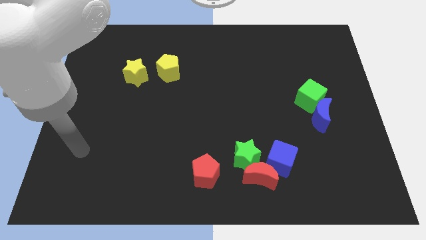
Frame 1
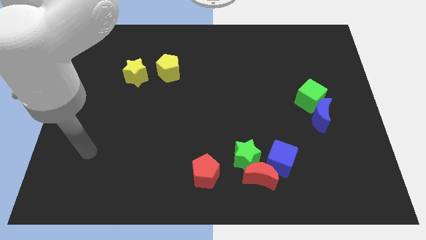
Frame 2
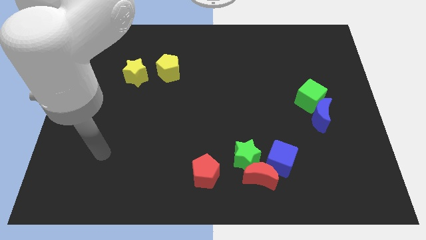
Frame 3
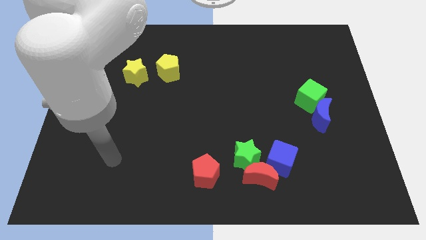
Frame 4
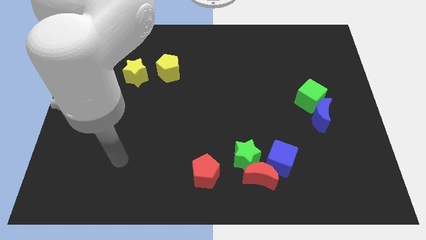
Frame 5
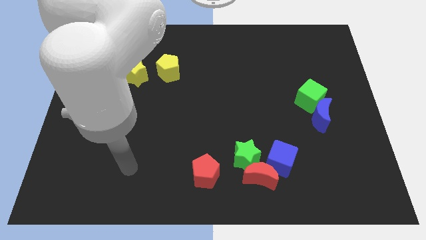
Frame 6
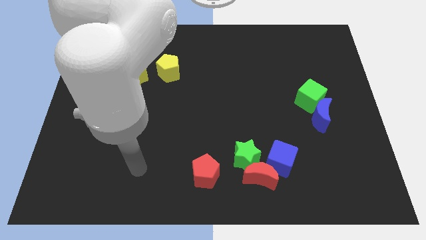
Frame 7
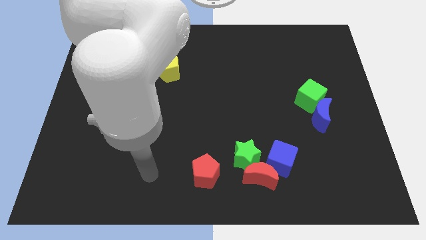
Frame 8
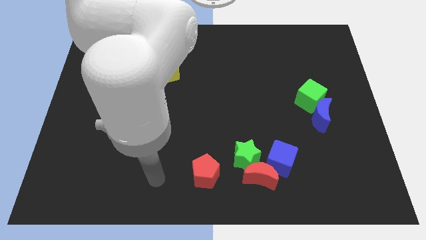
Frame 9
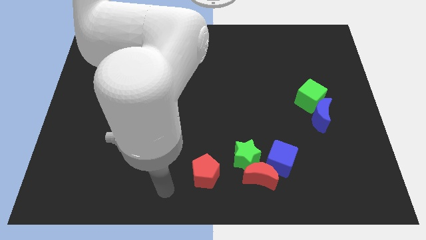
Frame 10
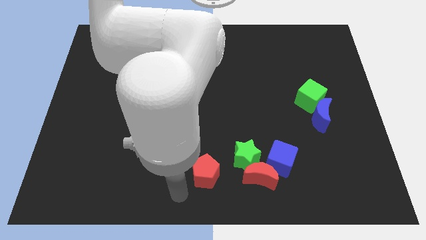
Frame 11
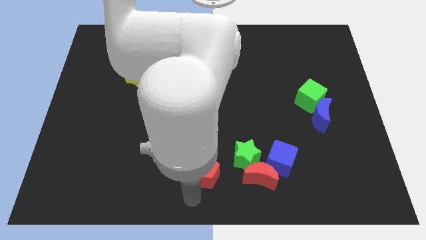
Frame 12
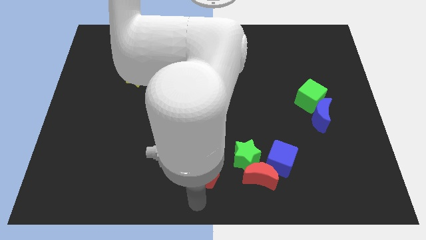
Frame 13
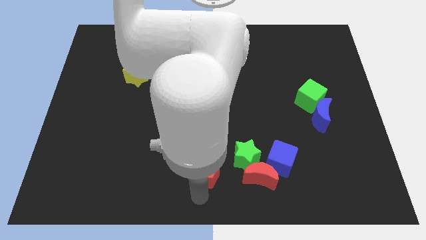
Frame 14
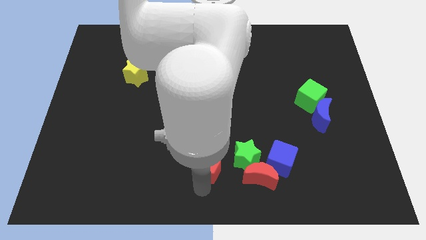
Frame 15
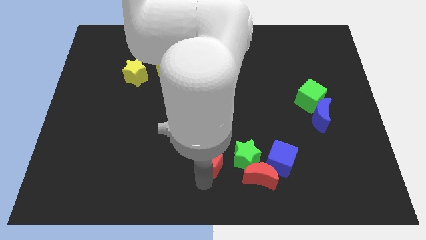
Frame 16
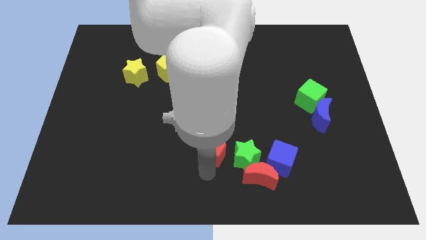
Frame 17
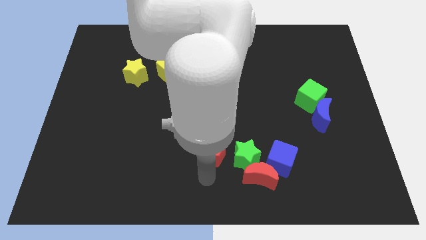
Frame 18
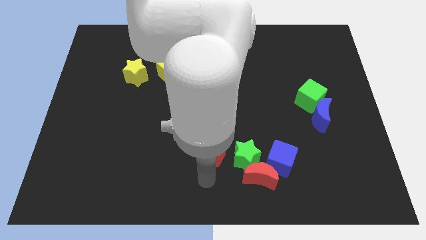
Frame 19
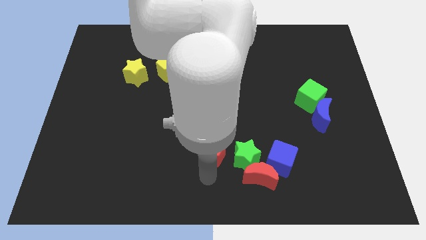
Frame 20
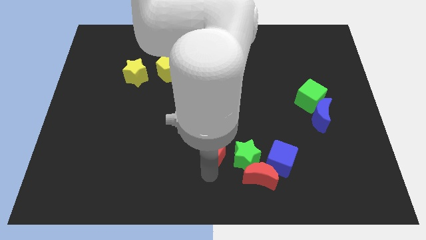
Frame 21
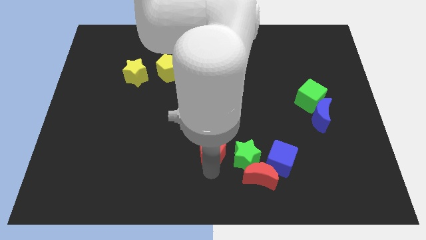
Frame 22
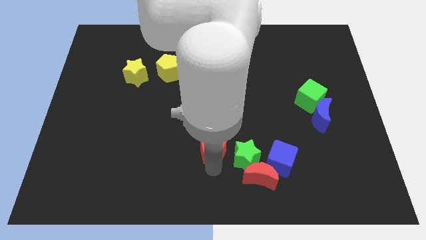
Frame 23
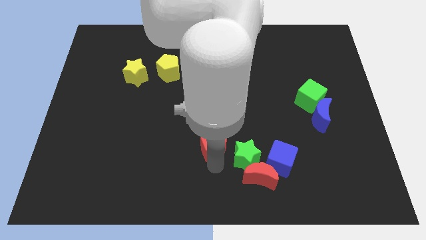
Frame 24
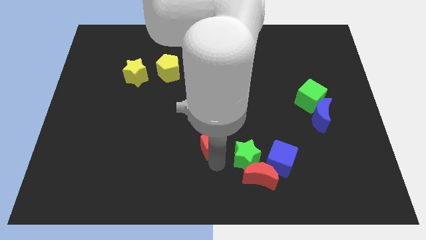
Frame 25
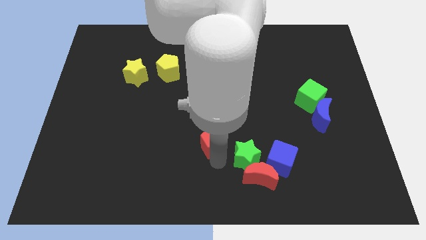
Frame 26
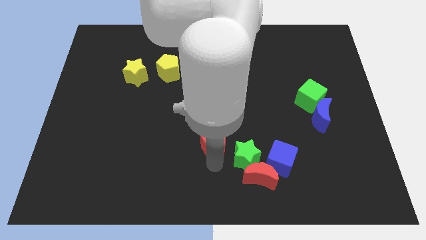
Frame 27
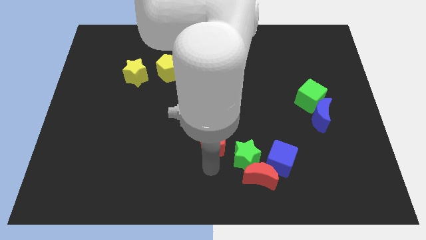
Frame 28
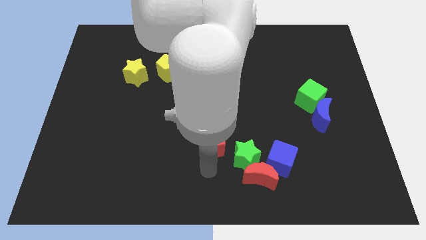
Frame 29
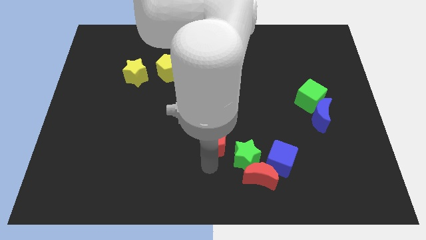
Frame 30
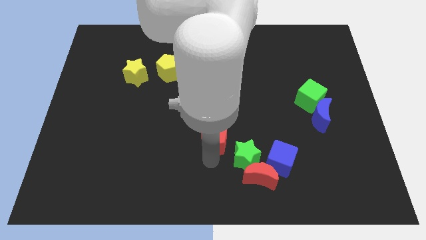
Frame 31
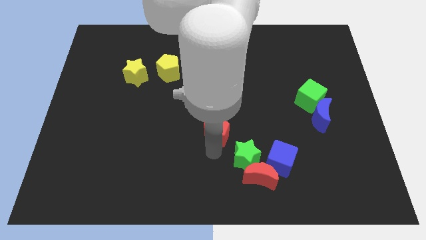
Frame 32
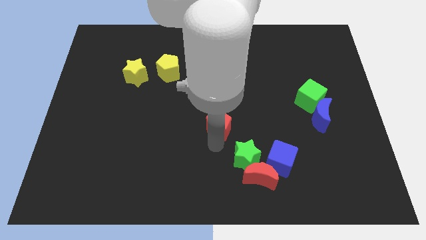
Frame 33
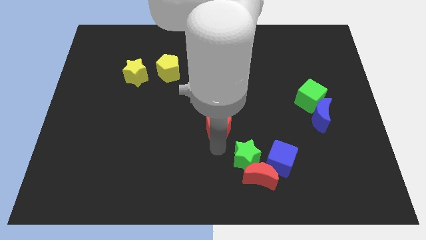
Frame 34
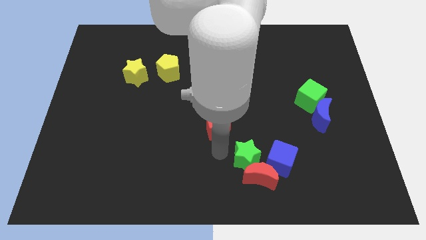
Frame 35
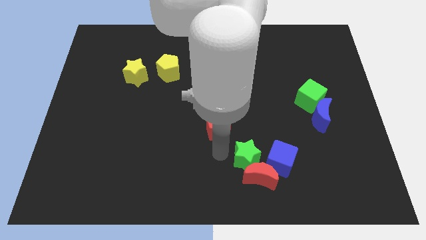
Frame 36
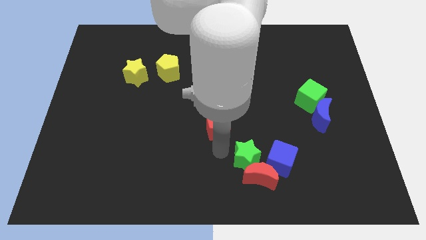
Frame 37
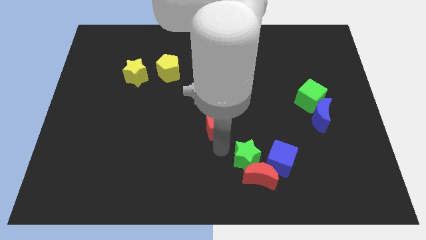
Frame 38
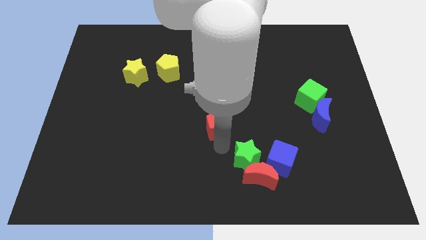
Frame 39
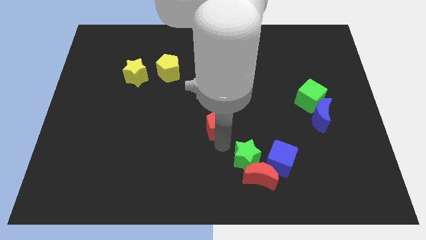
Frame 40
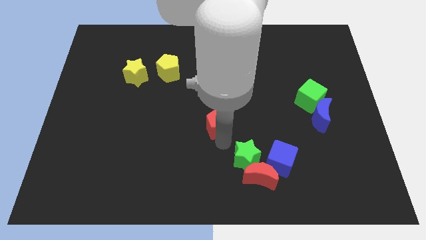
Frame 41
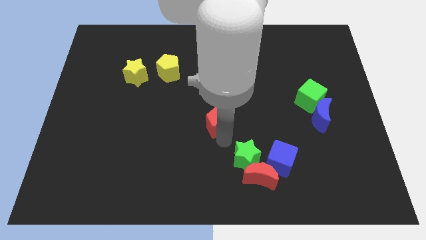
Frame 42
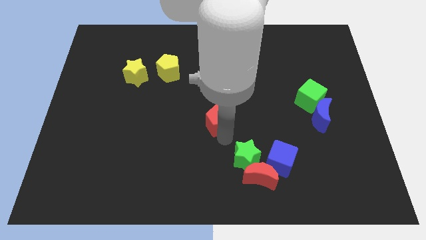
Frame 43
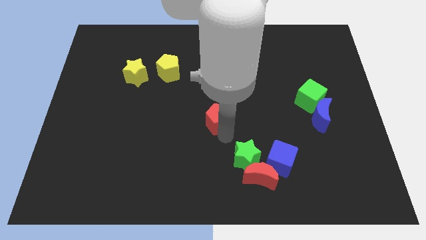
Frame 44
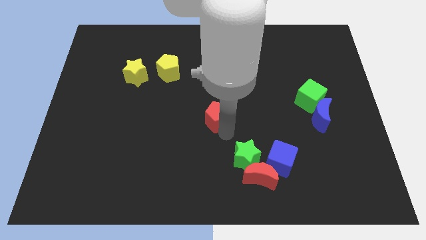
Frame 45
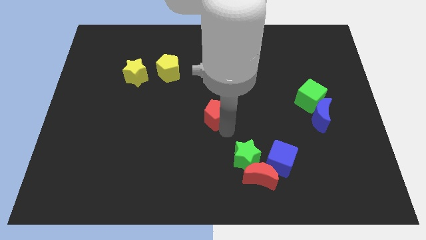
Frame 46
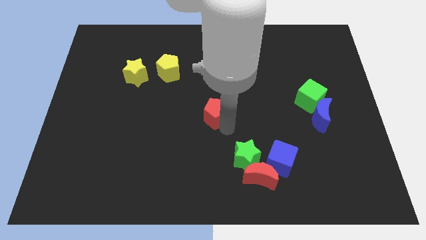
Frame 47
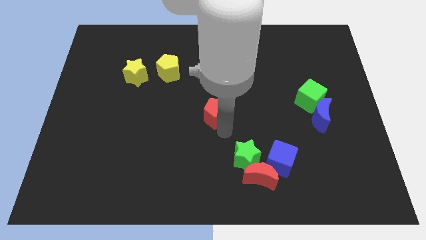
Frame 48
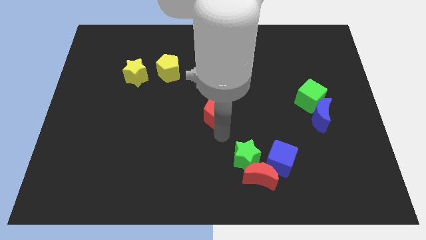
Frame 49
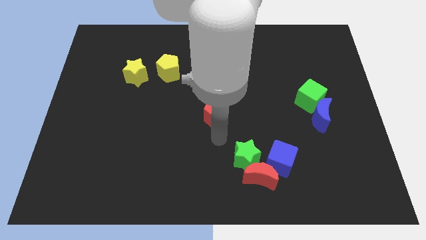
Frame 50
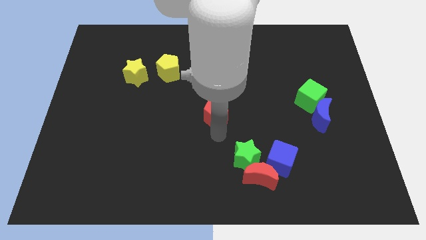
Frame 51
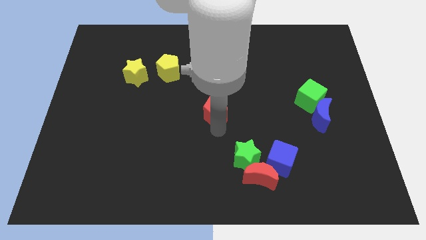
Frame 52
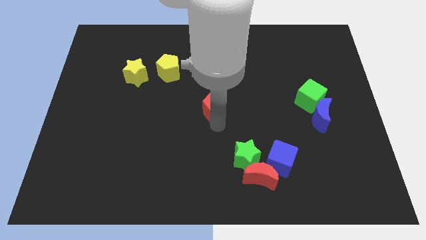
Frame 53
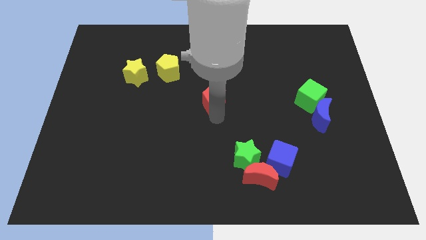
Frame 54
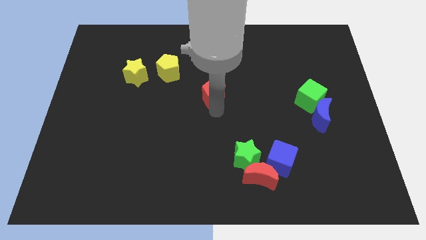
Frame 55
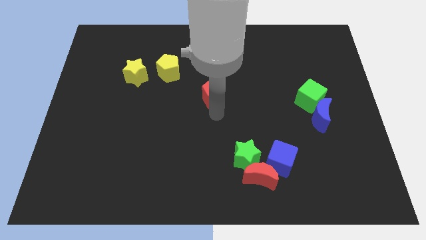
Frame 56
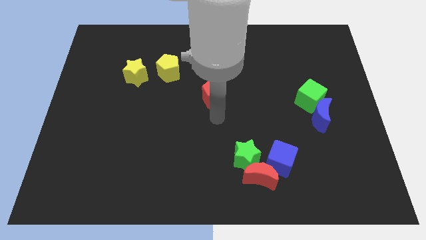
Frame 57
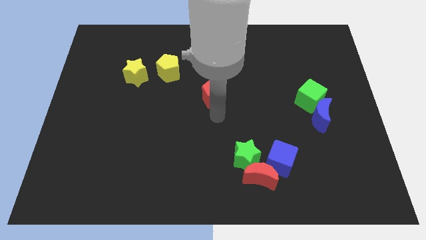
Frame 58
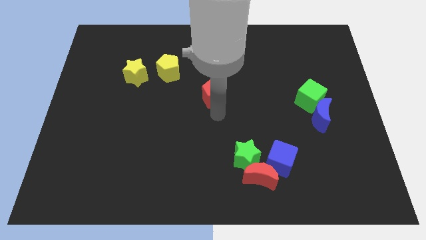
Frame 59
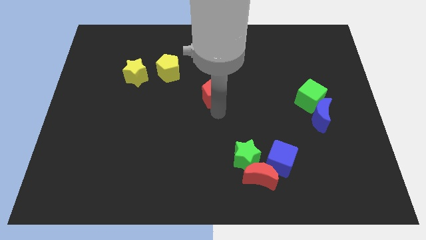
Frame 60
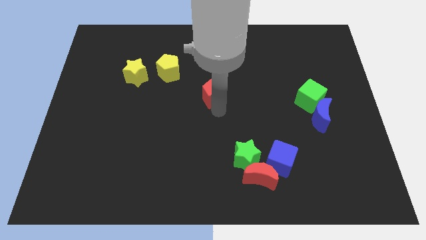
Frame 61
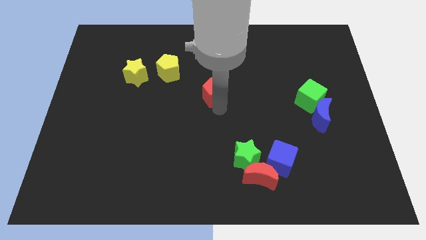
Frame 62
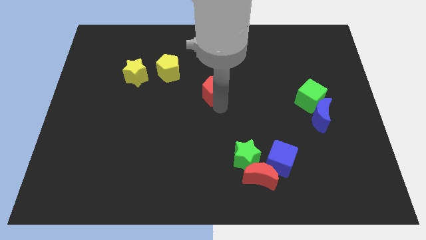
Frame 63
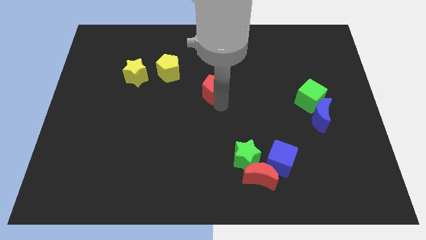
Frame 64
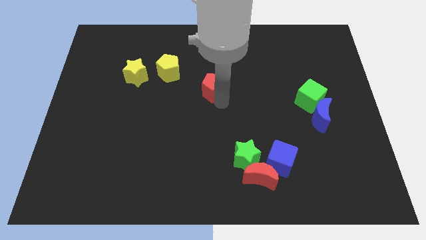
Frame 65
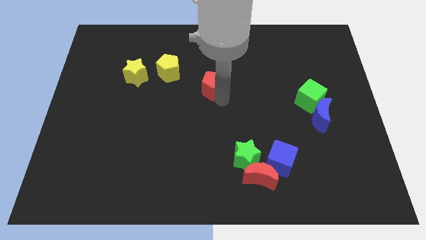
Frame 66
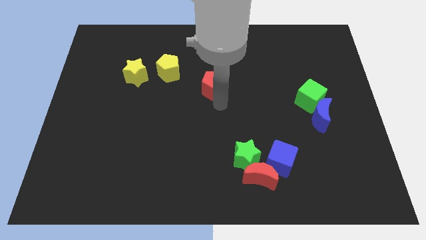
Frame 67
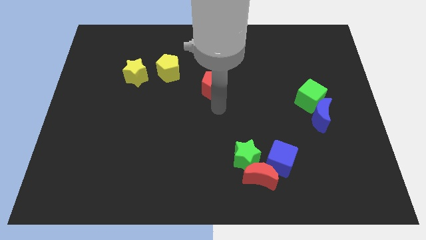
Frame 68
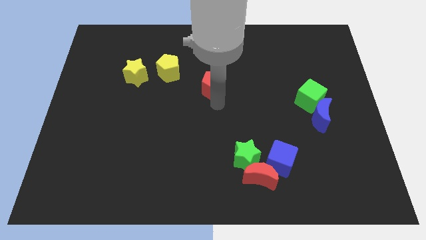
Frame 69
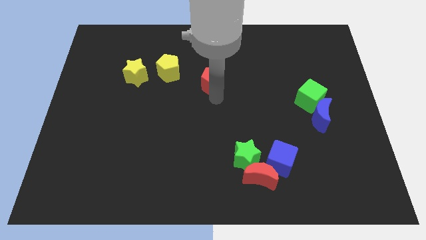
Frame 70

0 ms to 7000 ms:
put the red pentagon just right of the yellow pentagon

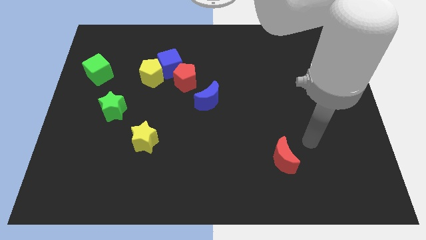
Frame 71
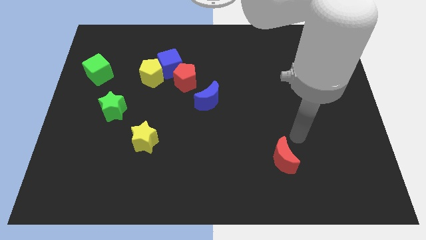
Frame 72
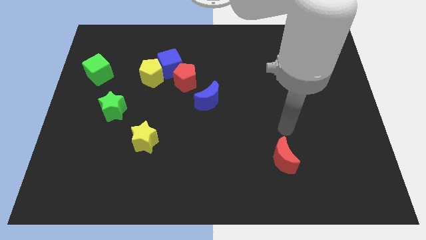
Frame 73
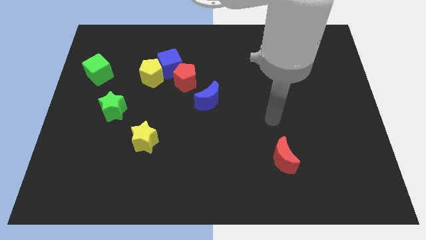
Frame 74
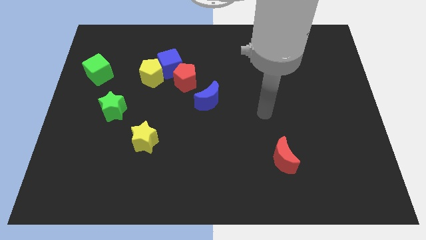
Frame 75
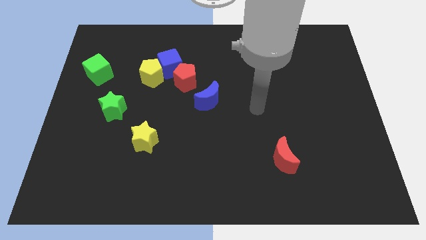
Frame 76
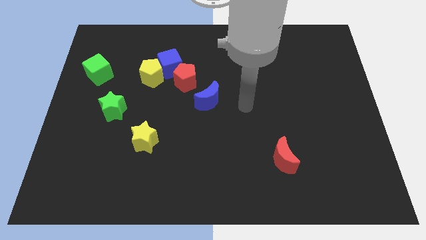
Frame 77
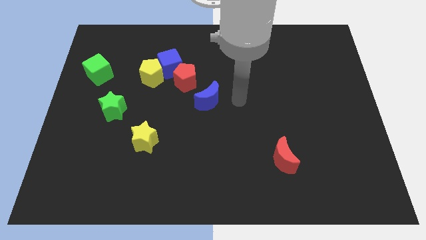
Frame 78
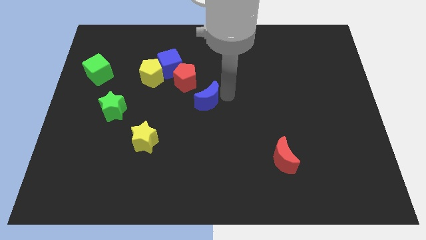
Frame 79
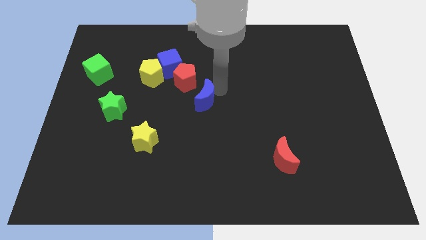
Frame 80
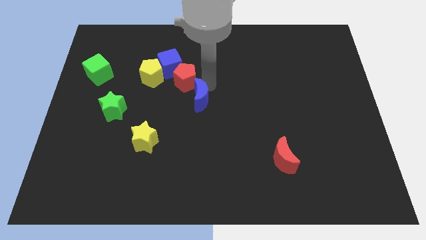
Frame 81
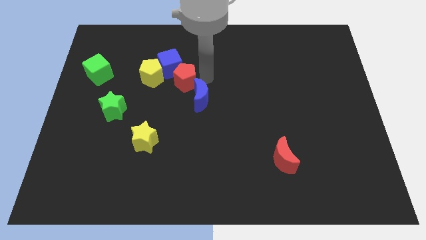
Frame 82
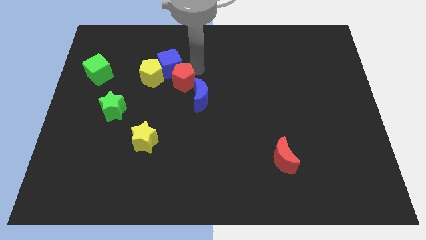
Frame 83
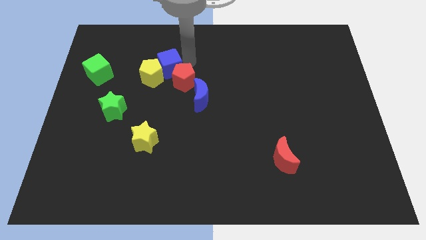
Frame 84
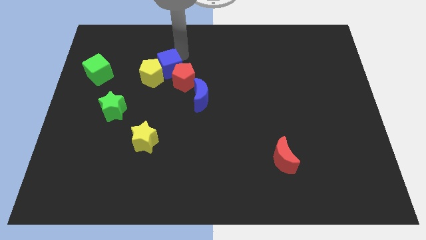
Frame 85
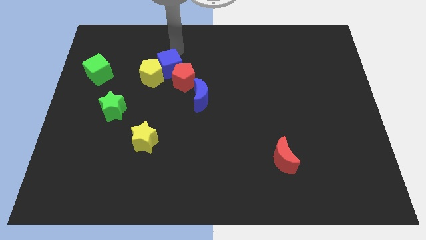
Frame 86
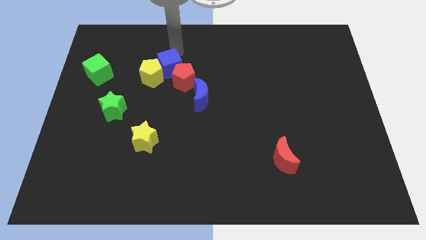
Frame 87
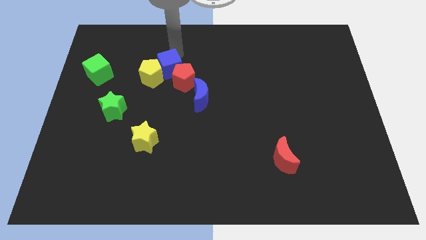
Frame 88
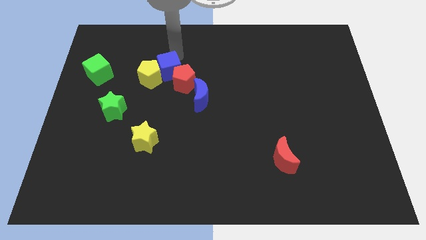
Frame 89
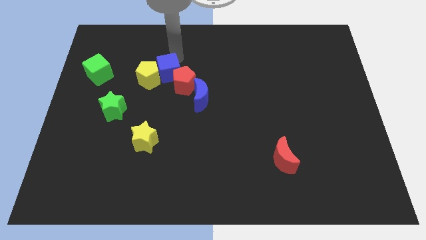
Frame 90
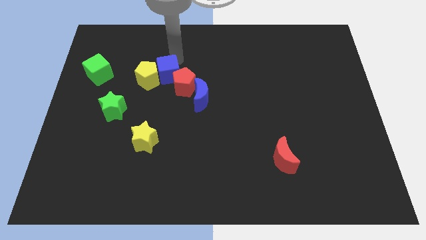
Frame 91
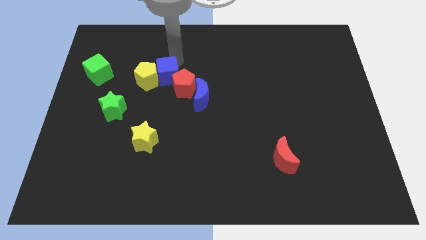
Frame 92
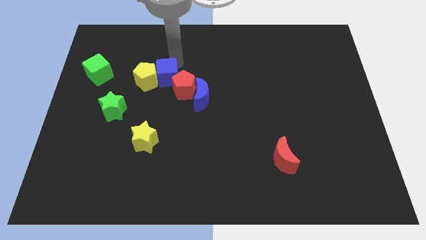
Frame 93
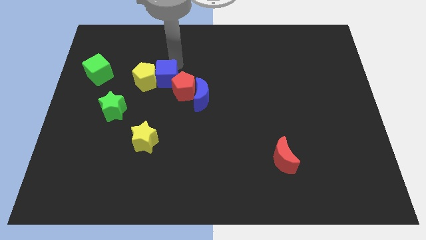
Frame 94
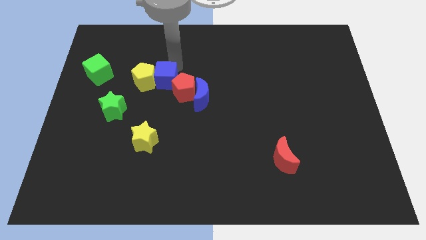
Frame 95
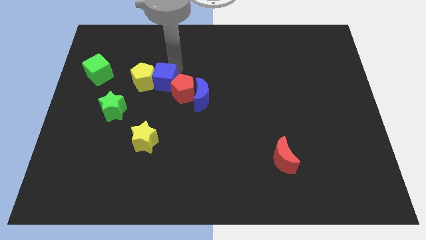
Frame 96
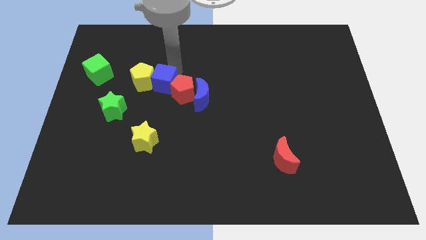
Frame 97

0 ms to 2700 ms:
put the blue cube left of the blue moon
